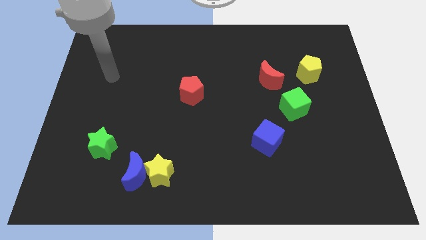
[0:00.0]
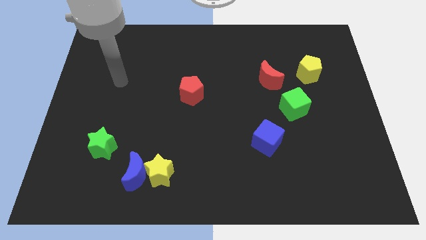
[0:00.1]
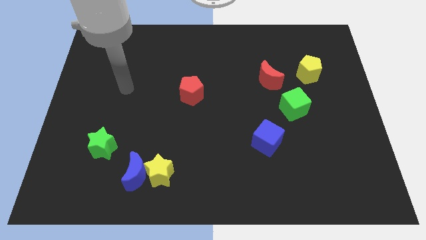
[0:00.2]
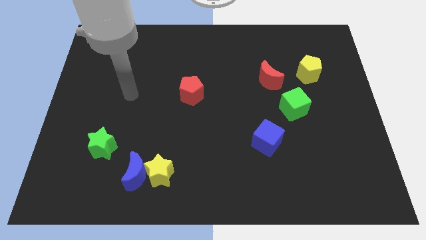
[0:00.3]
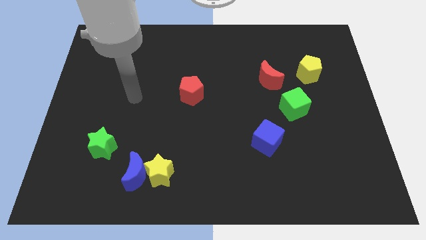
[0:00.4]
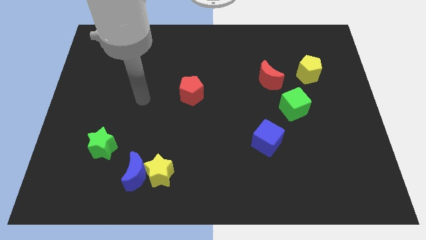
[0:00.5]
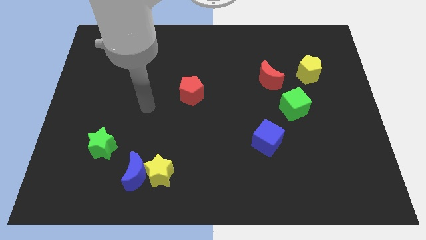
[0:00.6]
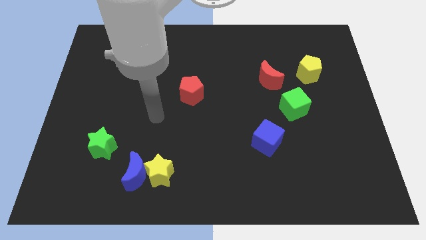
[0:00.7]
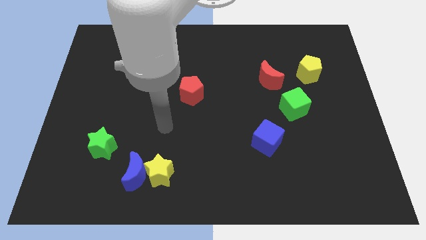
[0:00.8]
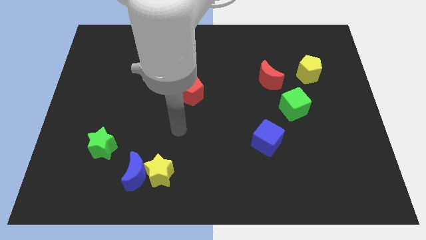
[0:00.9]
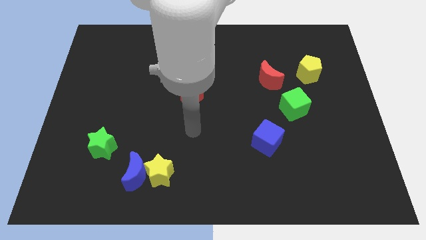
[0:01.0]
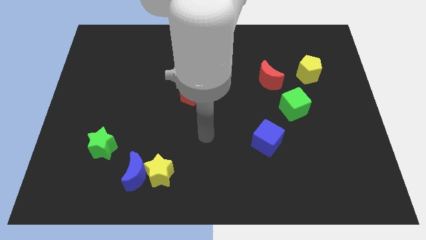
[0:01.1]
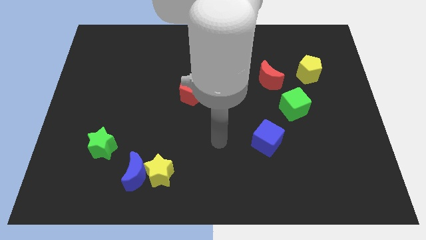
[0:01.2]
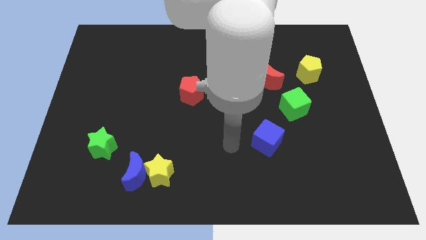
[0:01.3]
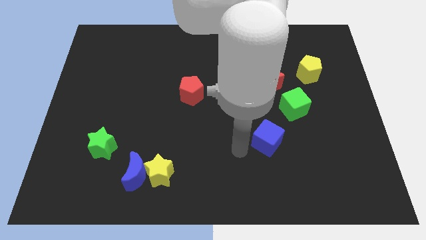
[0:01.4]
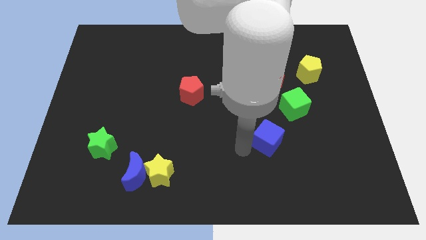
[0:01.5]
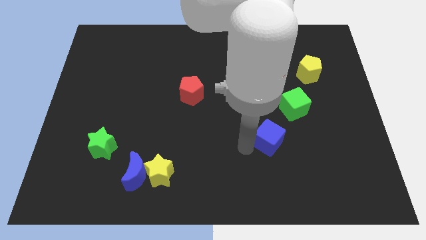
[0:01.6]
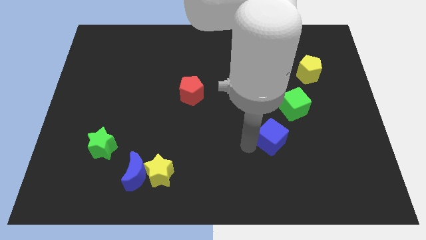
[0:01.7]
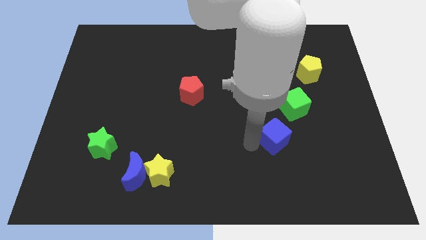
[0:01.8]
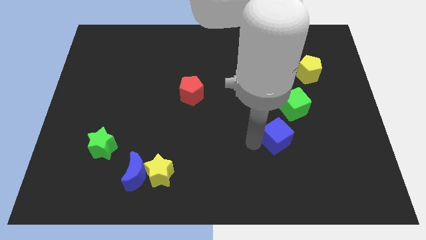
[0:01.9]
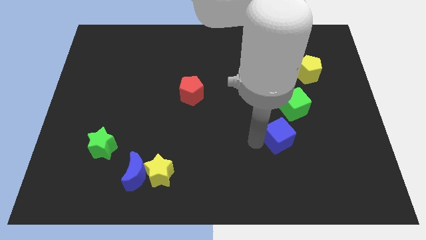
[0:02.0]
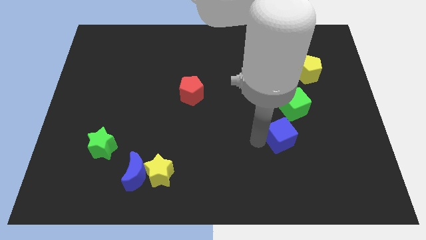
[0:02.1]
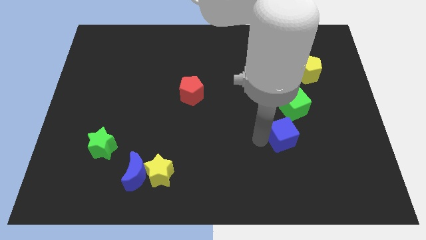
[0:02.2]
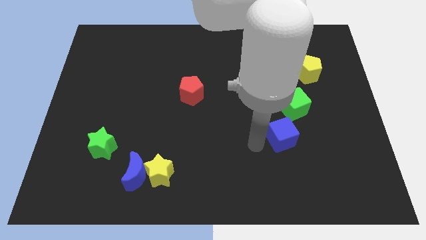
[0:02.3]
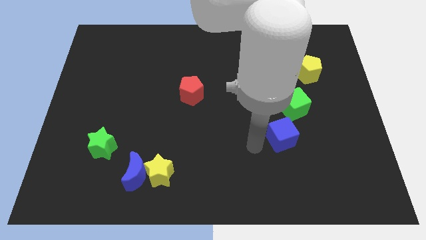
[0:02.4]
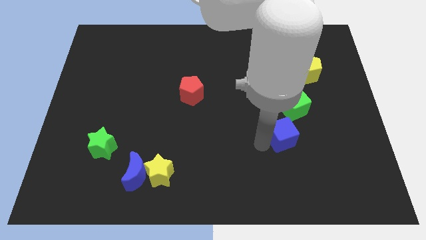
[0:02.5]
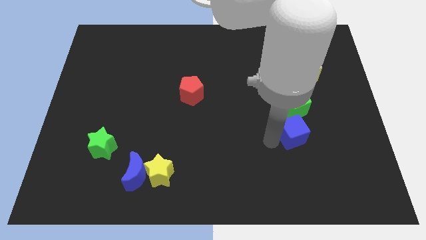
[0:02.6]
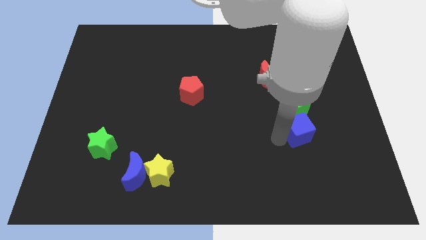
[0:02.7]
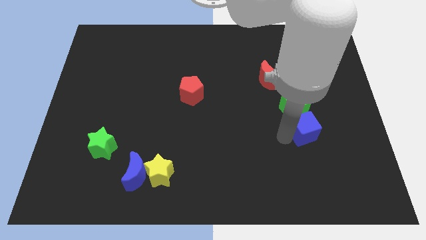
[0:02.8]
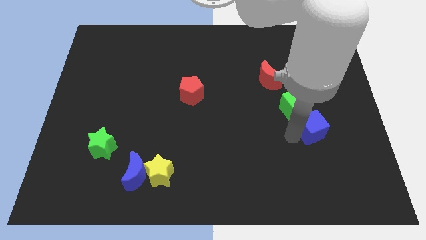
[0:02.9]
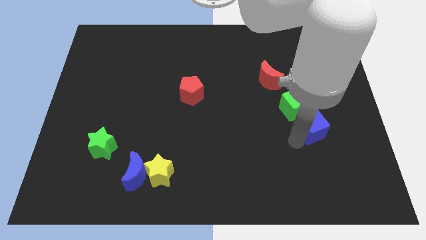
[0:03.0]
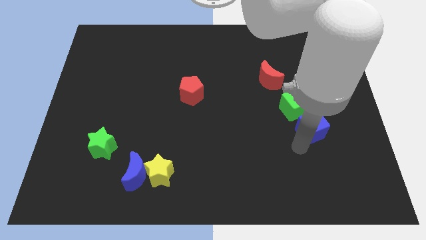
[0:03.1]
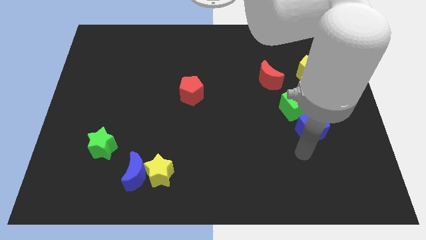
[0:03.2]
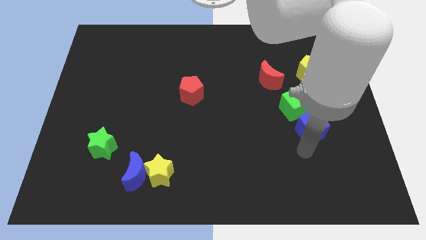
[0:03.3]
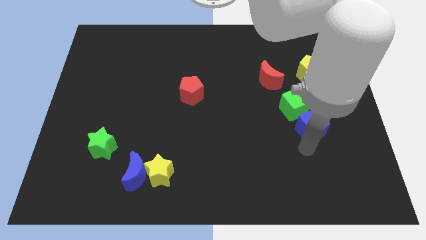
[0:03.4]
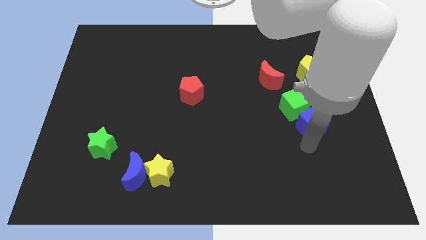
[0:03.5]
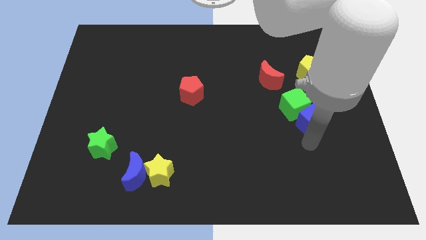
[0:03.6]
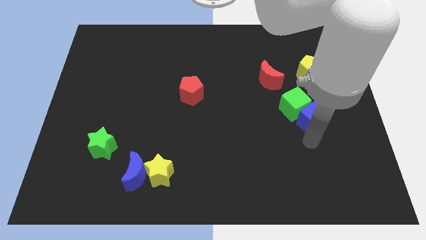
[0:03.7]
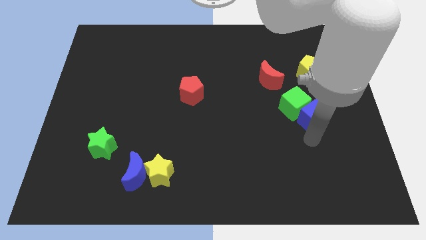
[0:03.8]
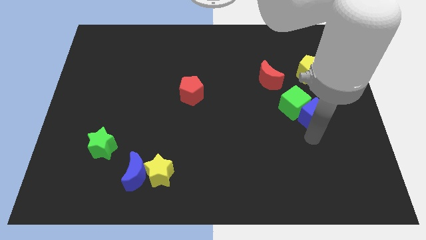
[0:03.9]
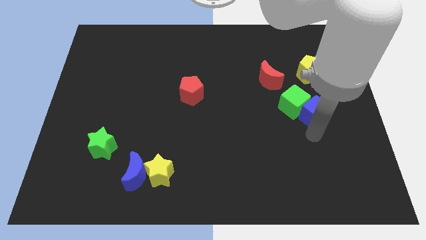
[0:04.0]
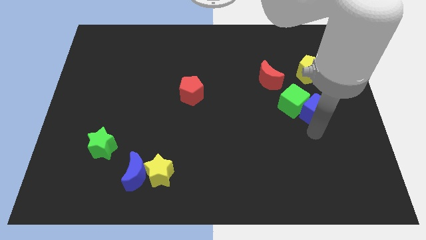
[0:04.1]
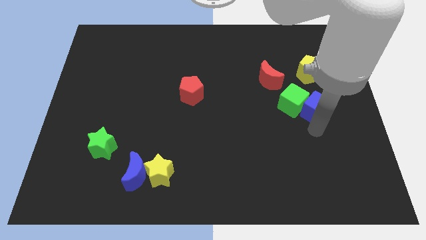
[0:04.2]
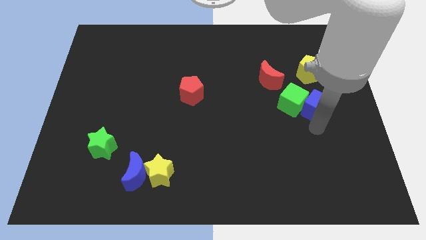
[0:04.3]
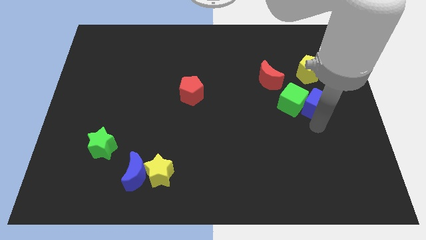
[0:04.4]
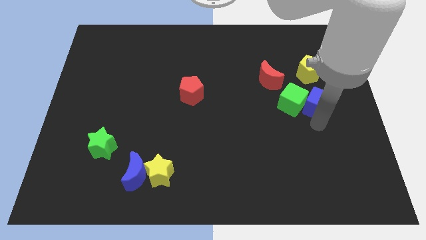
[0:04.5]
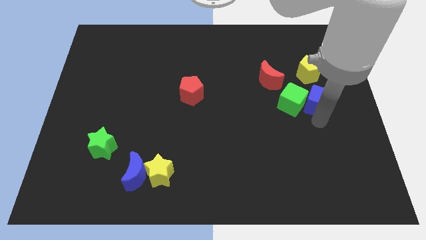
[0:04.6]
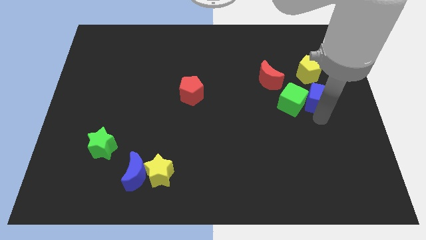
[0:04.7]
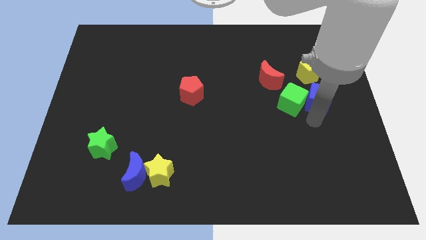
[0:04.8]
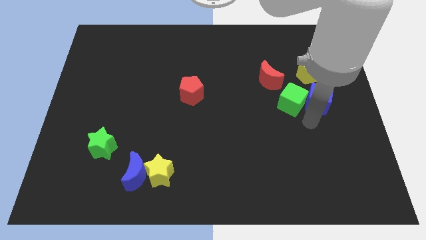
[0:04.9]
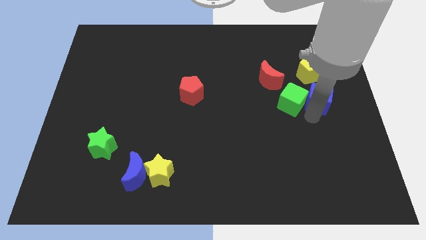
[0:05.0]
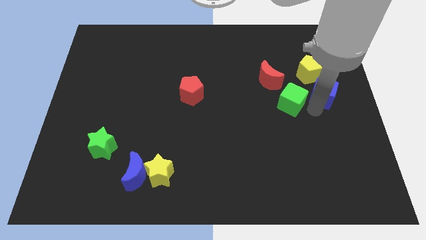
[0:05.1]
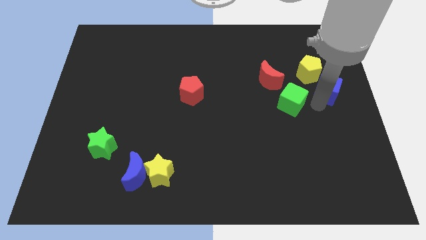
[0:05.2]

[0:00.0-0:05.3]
move the blue cube right of the red moon

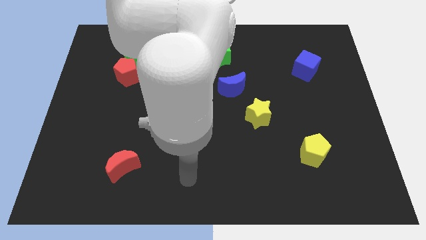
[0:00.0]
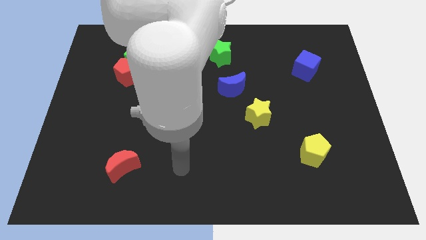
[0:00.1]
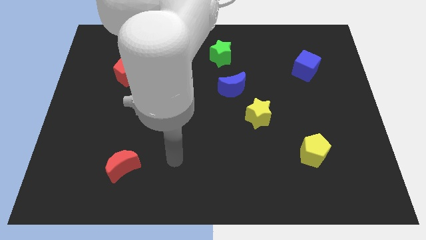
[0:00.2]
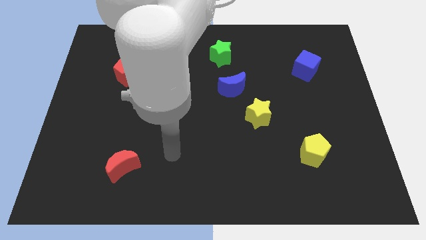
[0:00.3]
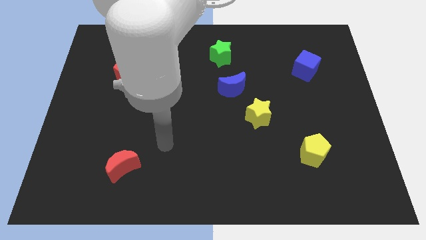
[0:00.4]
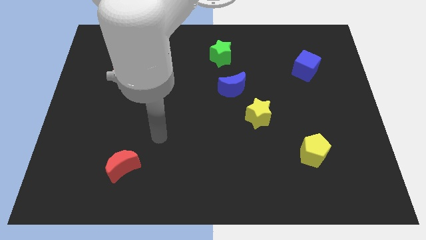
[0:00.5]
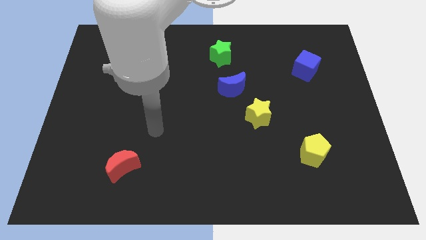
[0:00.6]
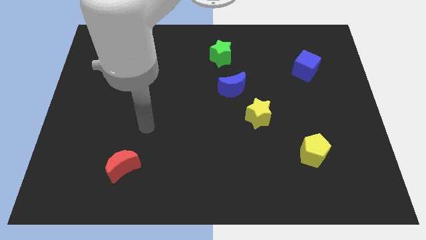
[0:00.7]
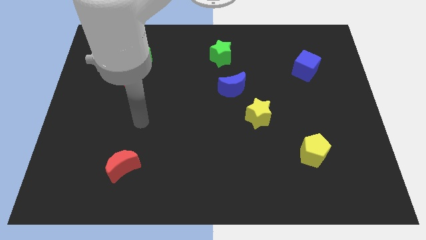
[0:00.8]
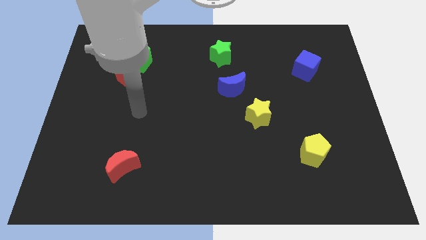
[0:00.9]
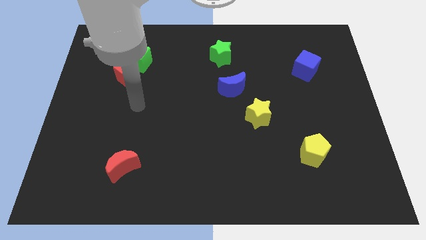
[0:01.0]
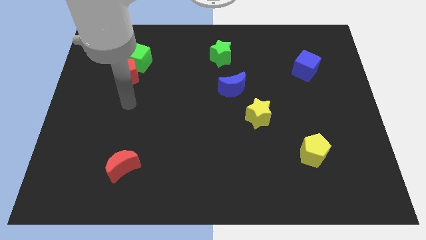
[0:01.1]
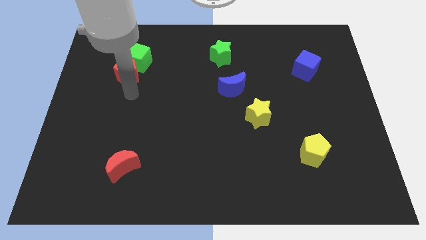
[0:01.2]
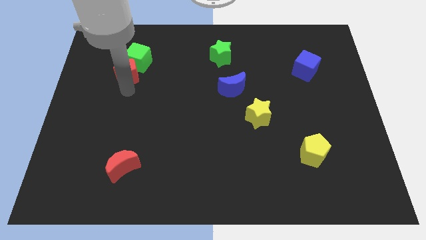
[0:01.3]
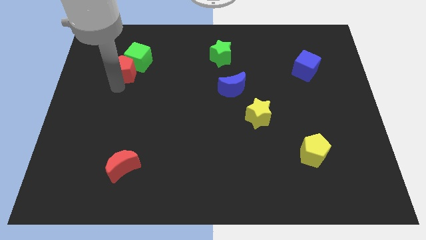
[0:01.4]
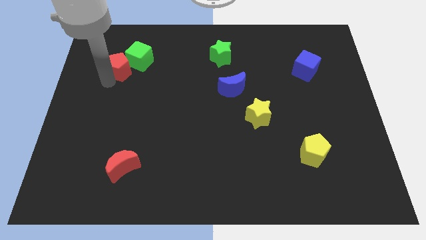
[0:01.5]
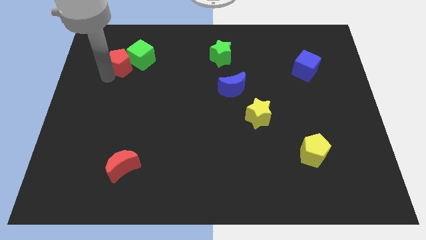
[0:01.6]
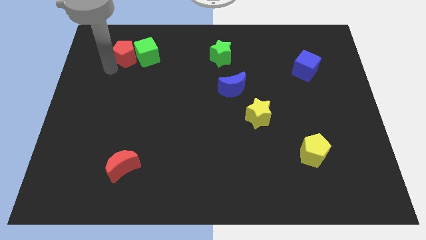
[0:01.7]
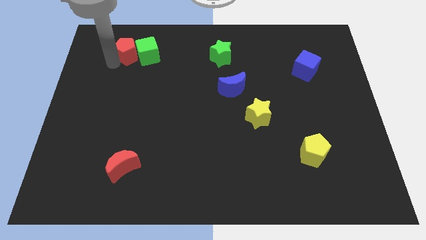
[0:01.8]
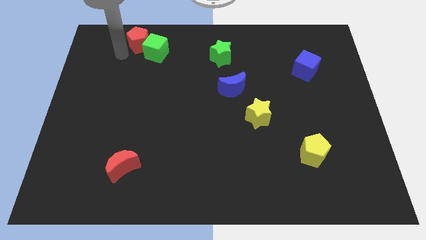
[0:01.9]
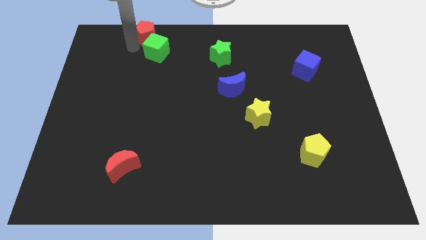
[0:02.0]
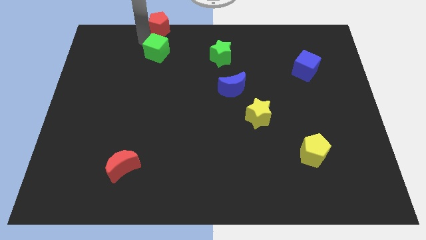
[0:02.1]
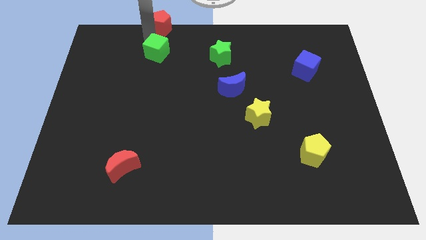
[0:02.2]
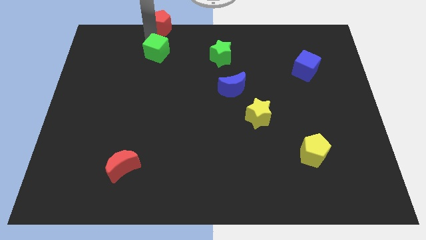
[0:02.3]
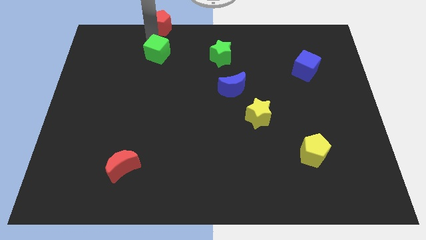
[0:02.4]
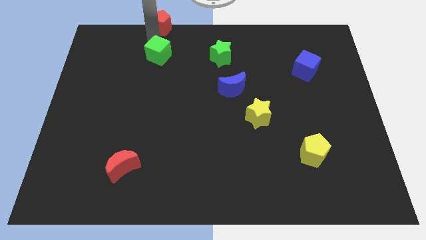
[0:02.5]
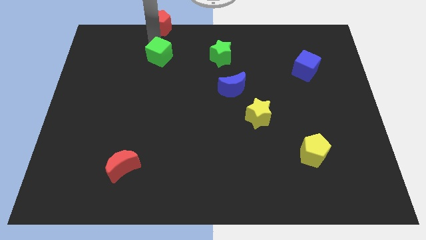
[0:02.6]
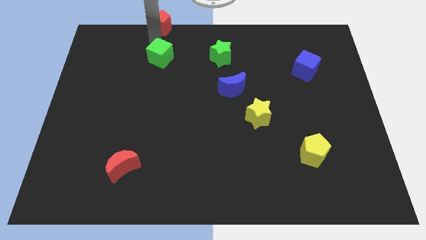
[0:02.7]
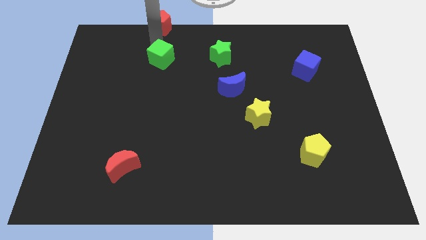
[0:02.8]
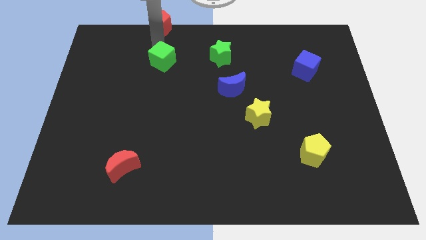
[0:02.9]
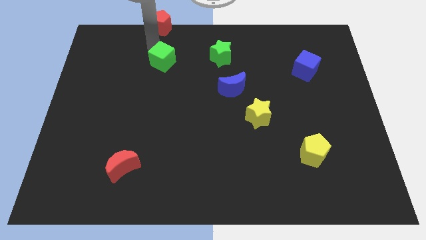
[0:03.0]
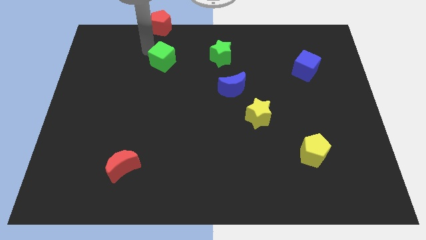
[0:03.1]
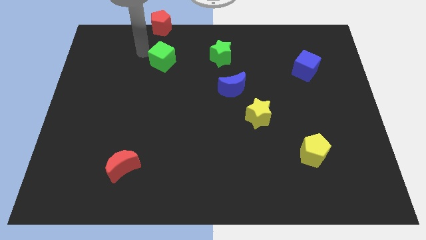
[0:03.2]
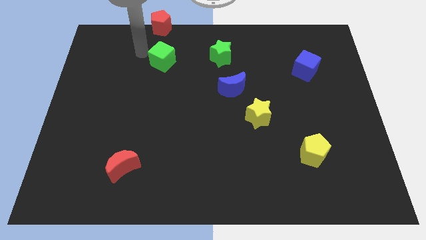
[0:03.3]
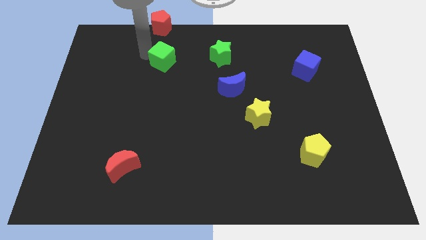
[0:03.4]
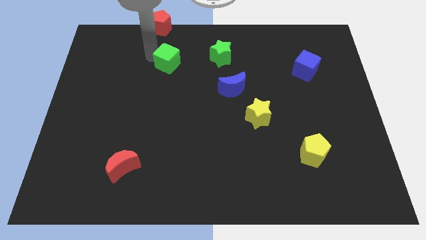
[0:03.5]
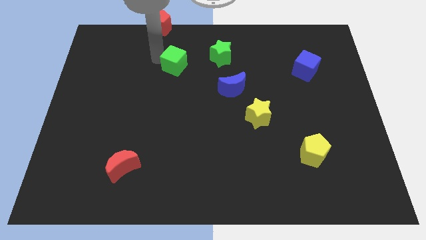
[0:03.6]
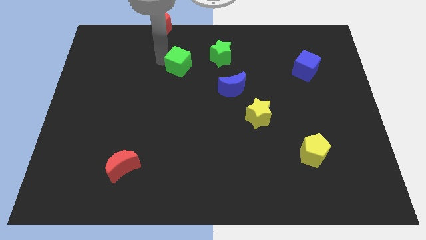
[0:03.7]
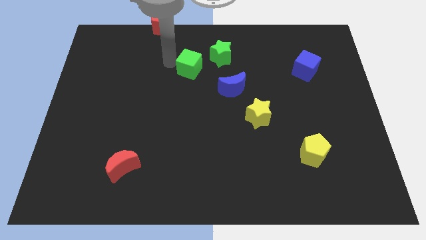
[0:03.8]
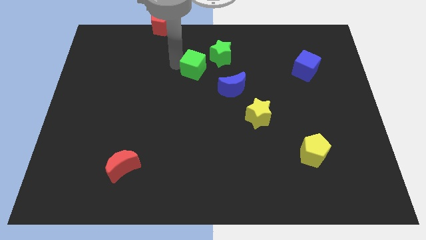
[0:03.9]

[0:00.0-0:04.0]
push the green cube to the top left of the blue moon
